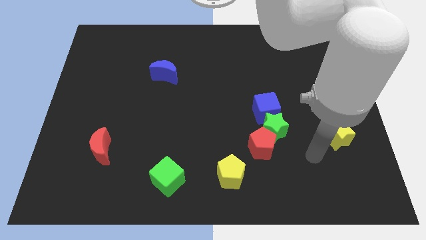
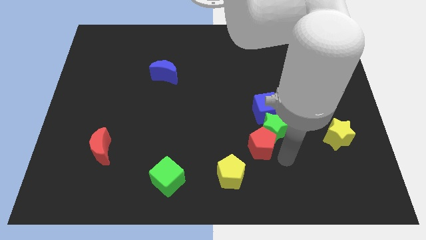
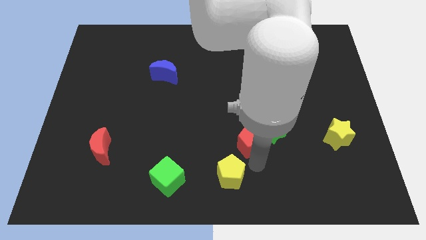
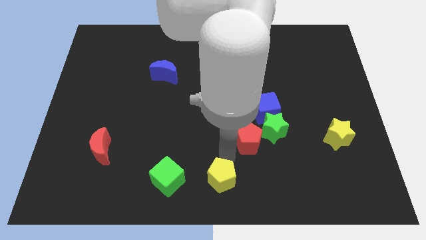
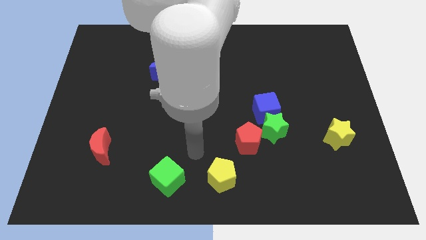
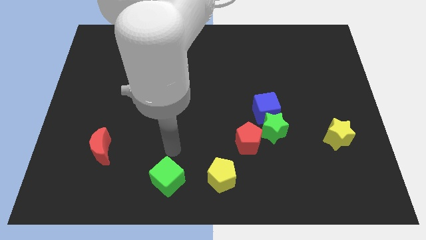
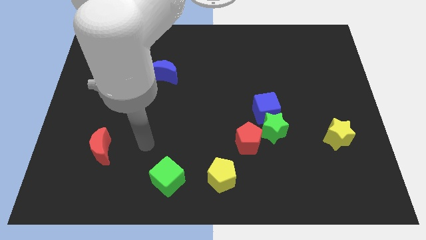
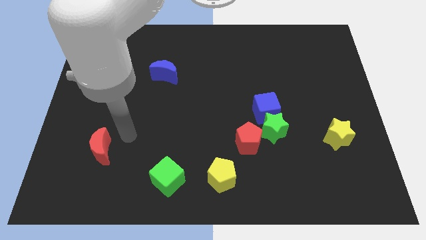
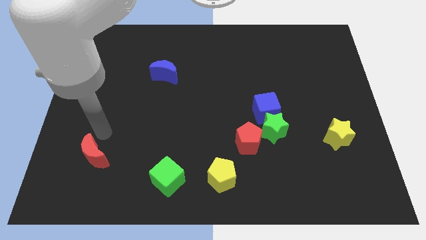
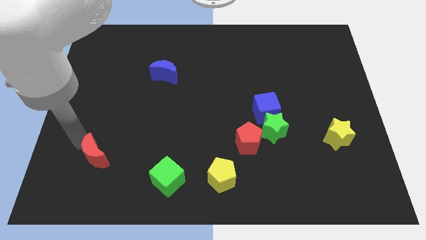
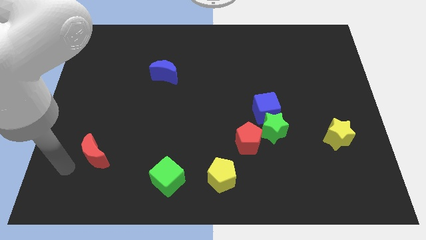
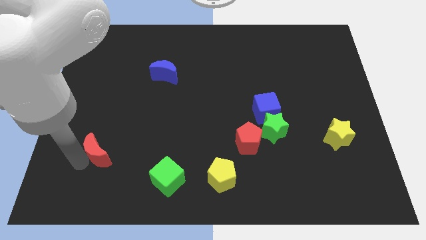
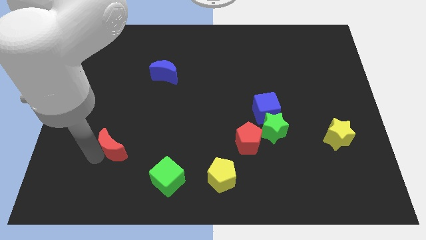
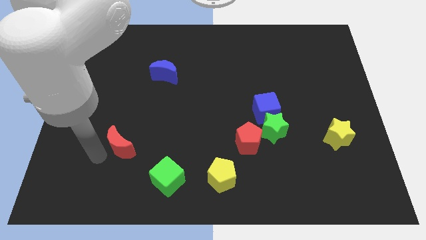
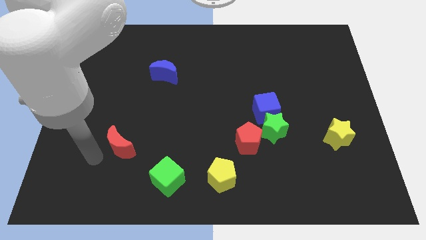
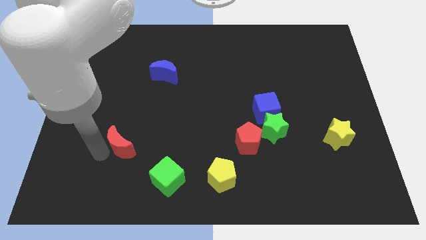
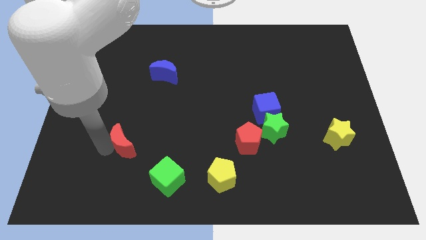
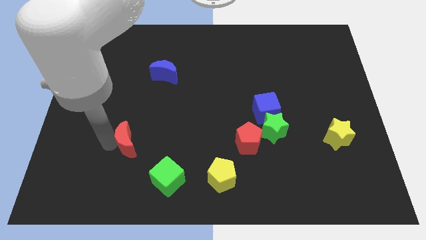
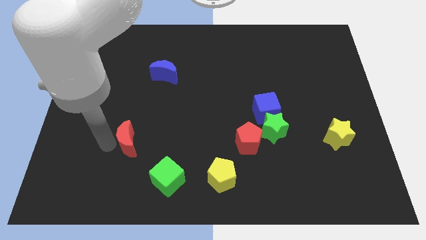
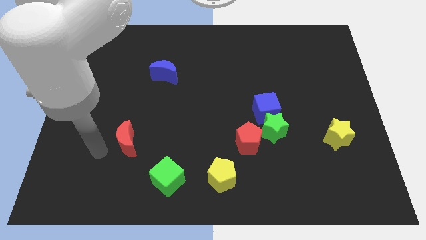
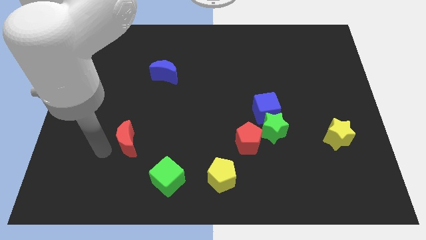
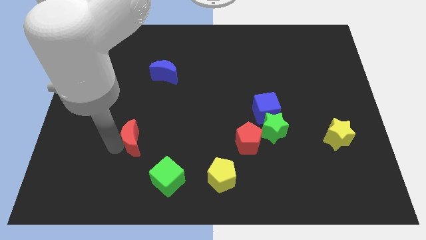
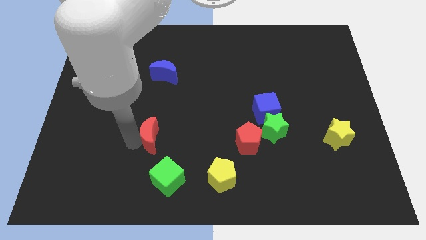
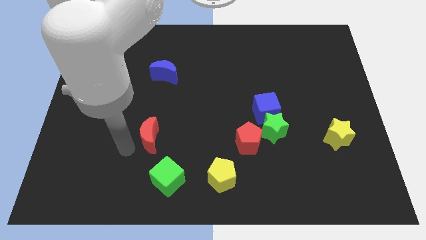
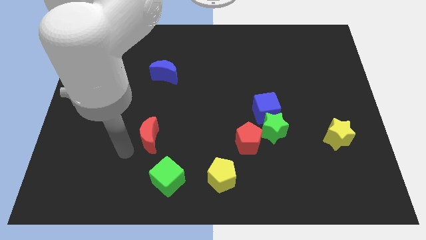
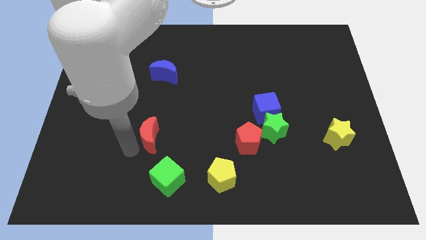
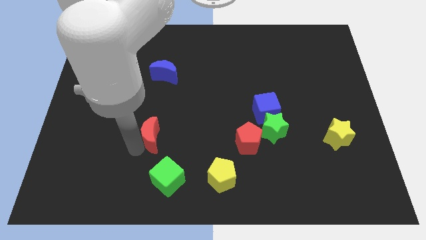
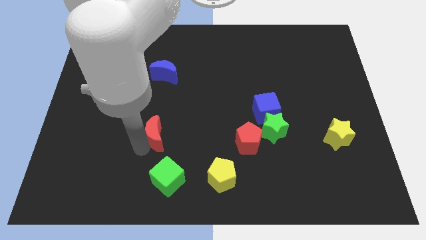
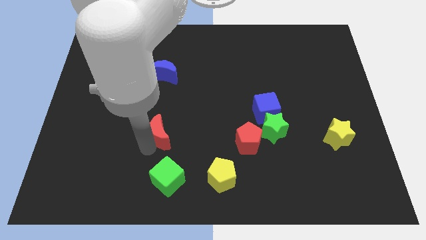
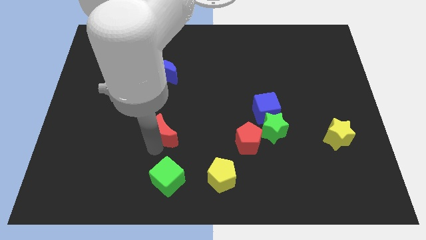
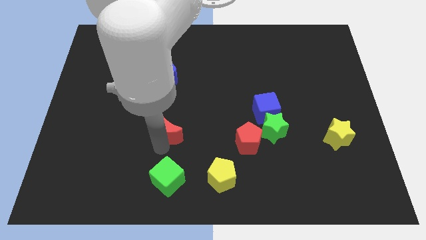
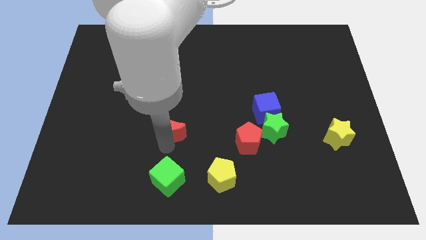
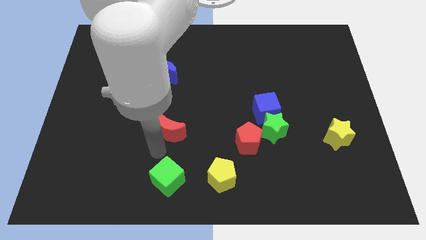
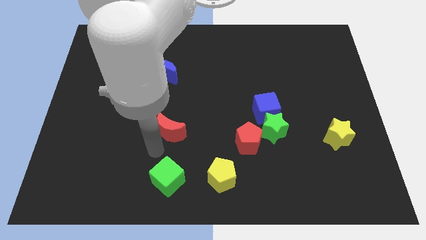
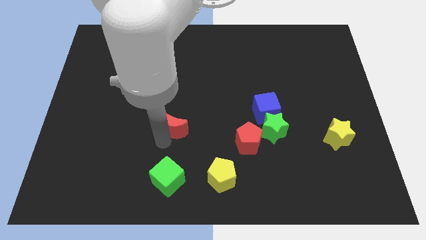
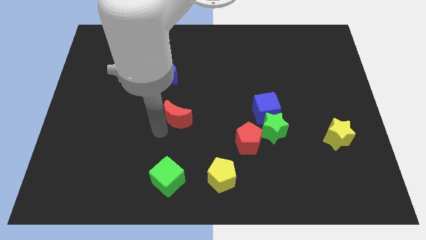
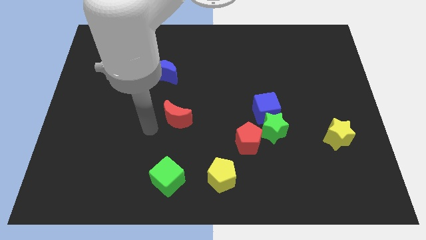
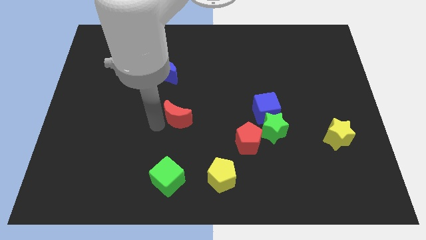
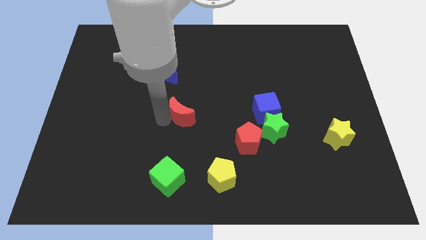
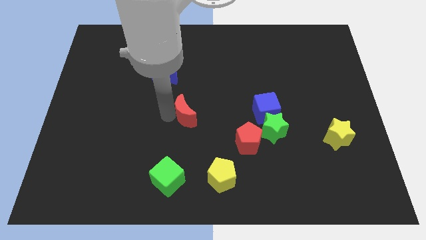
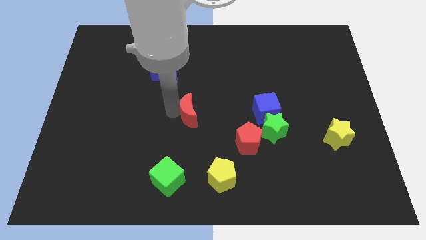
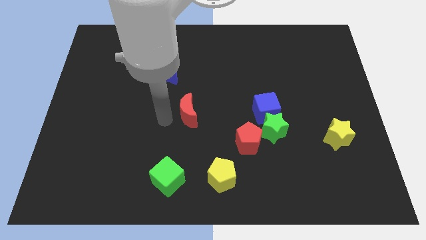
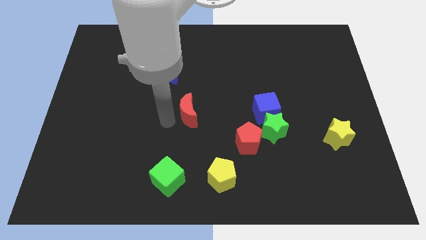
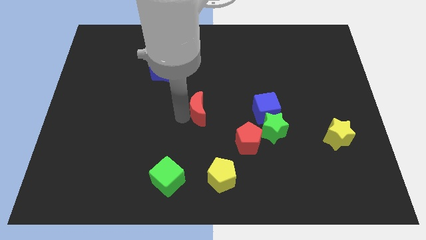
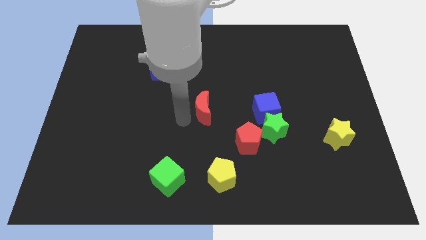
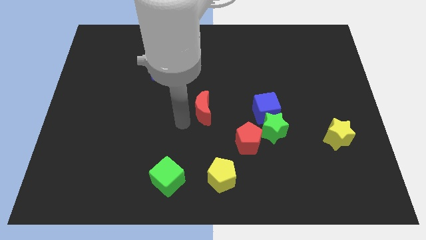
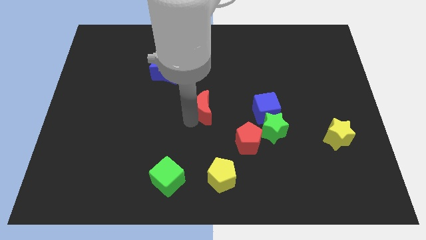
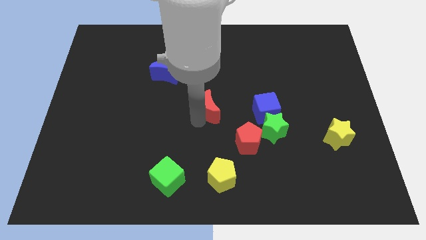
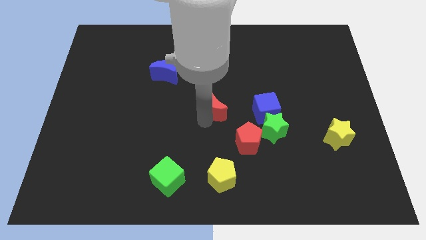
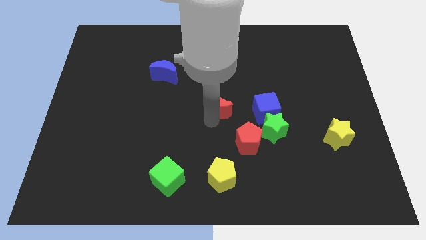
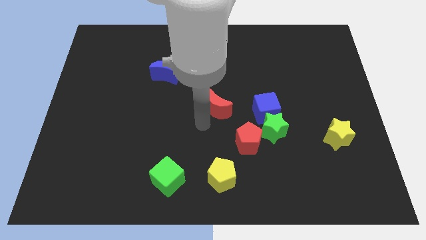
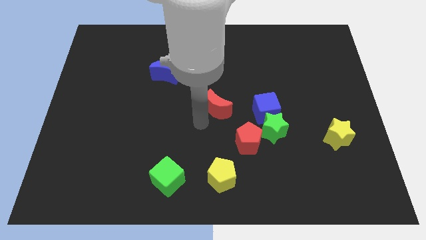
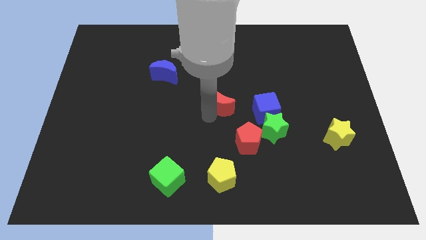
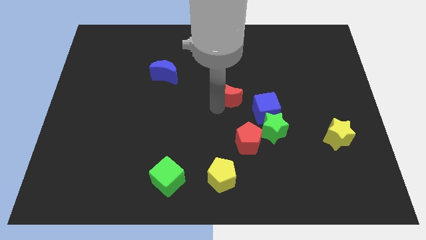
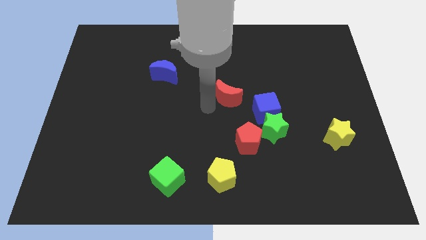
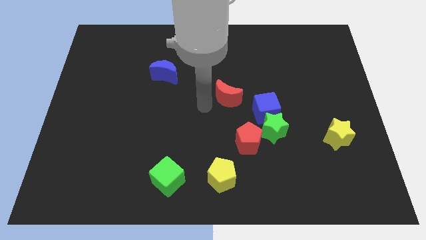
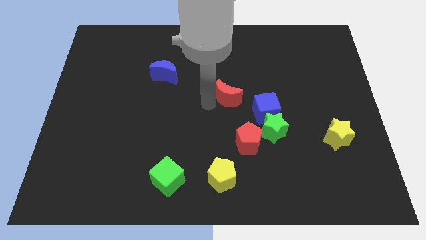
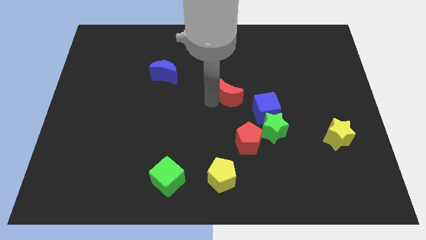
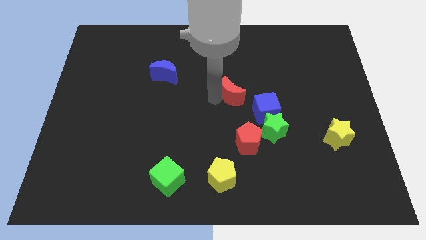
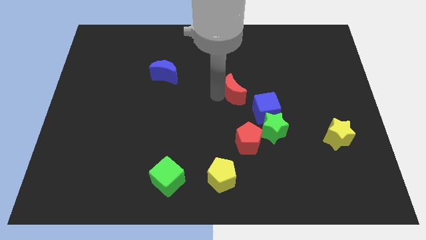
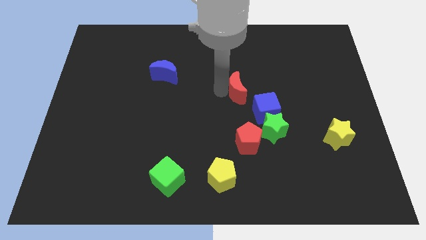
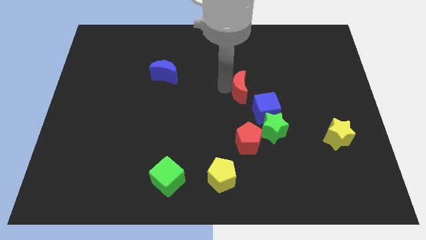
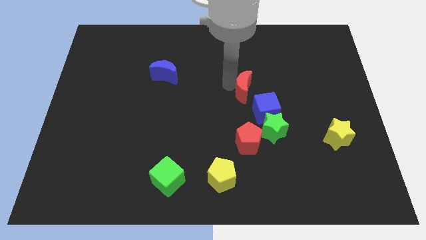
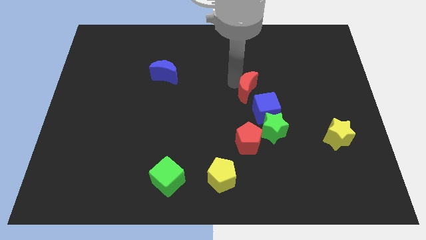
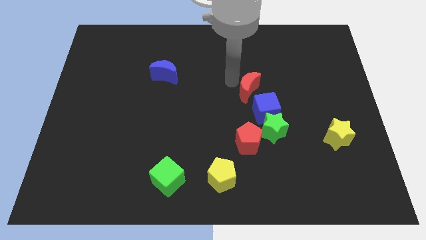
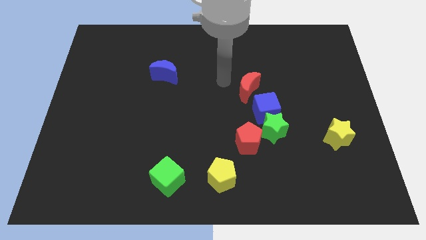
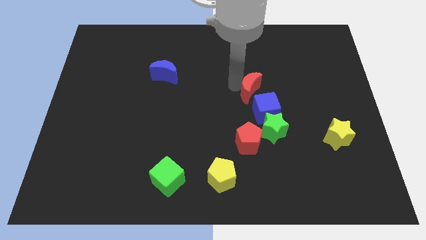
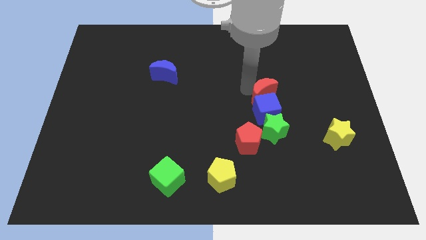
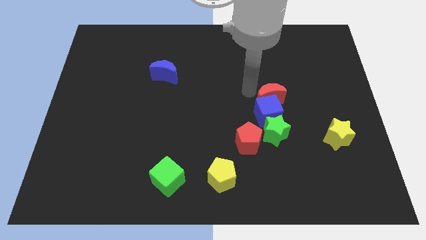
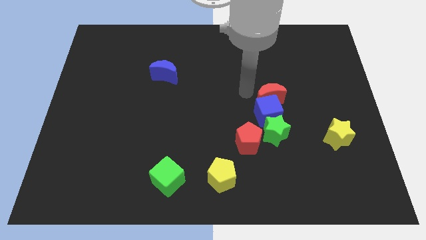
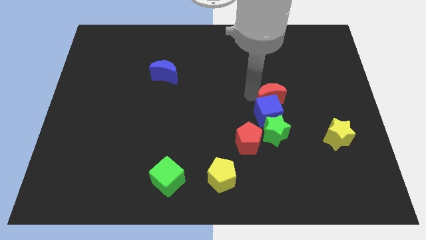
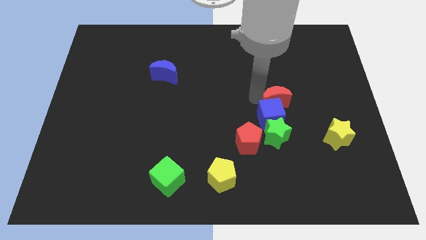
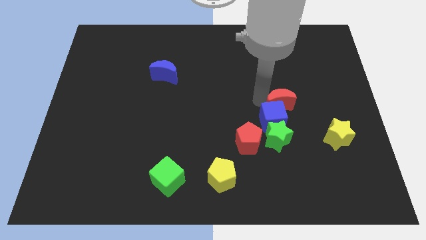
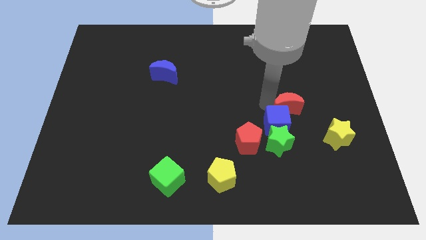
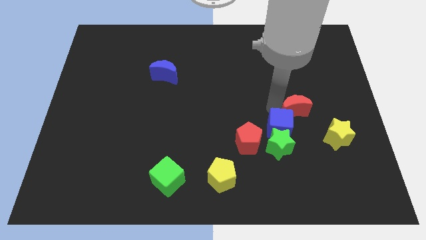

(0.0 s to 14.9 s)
push the red moon right of the blue cube
